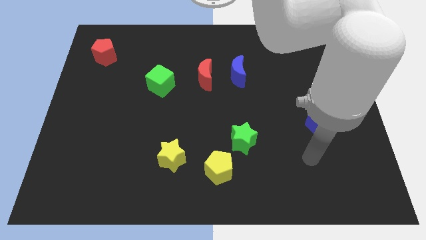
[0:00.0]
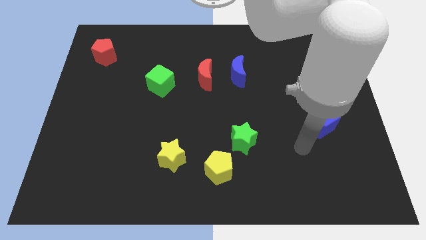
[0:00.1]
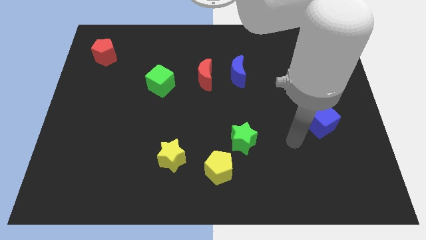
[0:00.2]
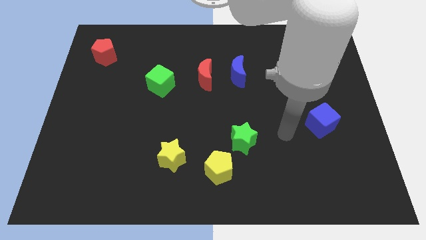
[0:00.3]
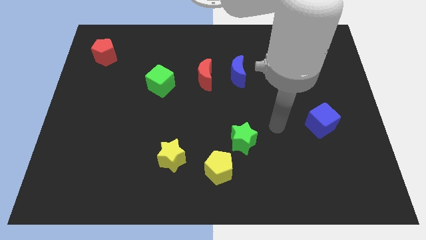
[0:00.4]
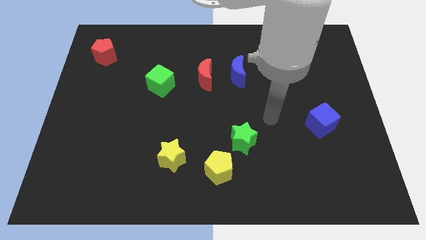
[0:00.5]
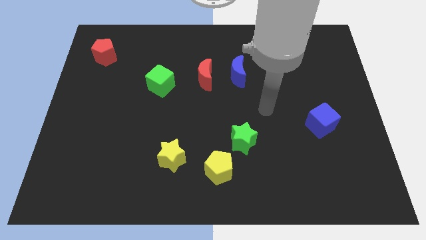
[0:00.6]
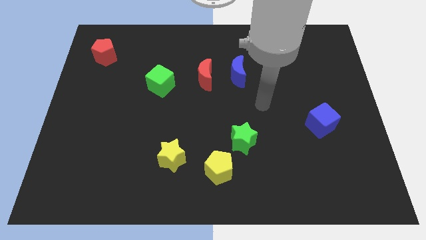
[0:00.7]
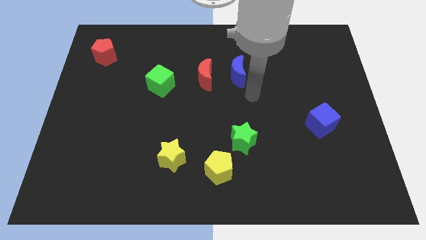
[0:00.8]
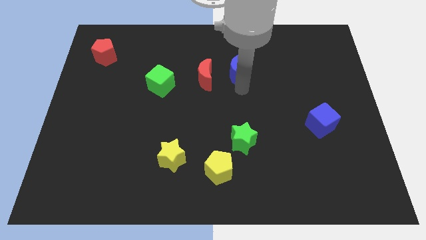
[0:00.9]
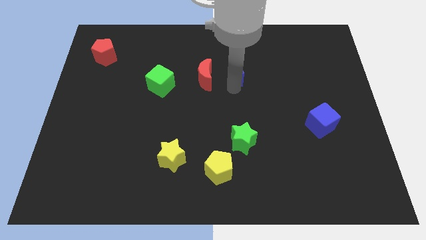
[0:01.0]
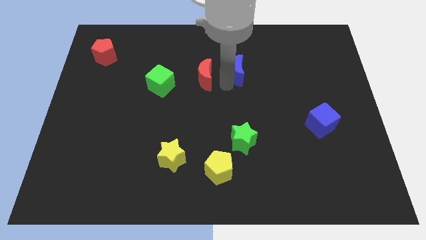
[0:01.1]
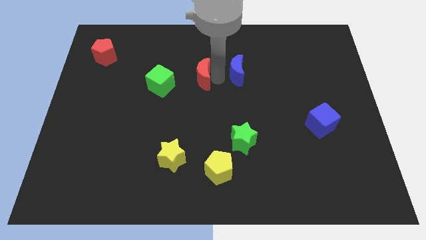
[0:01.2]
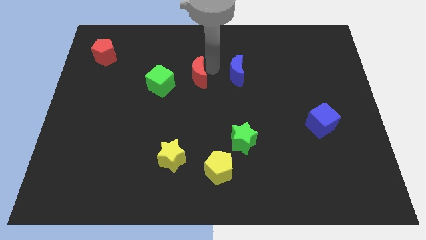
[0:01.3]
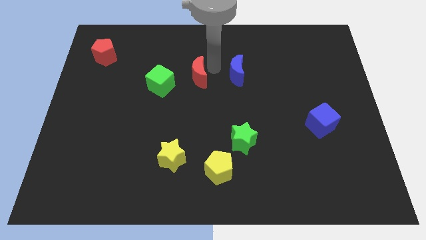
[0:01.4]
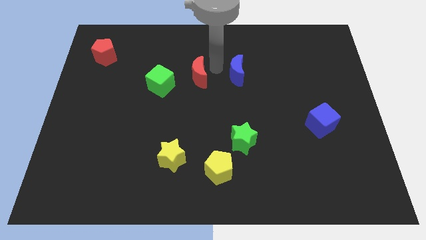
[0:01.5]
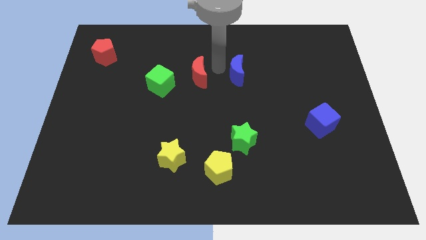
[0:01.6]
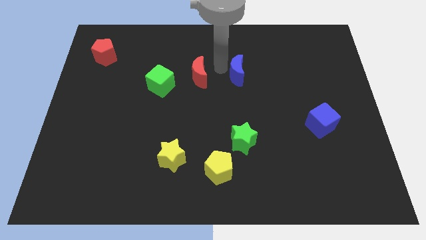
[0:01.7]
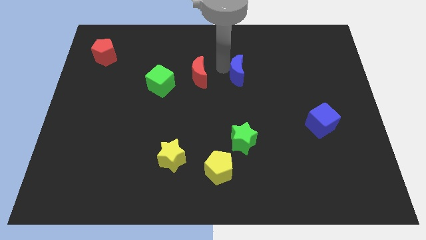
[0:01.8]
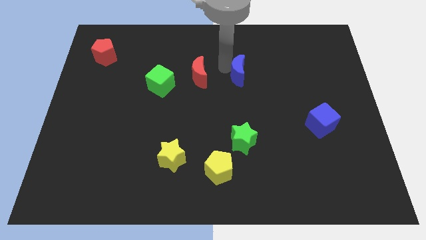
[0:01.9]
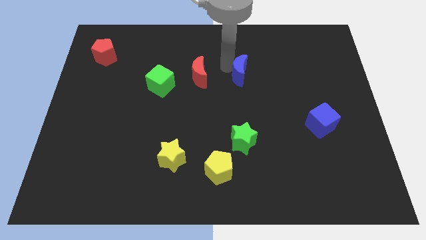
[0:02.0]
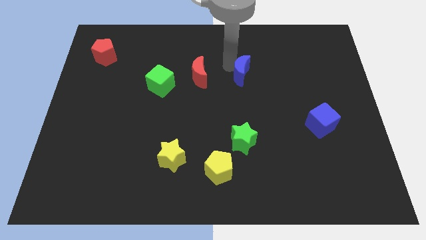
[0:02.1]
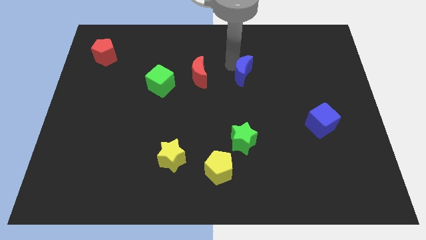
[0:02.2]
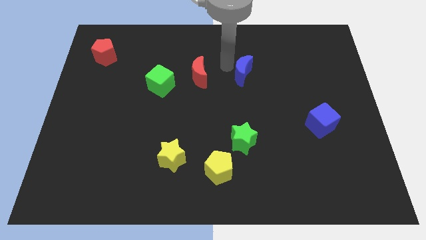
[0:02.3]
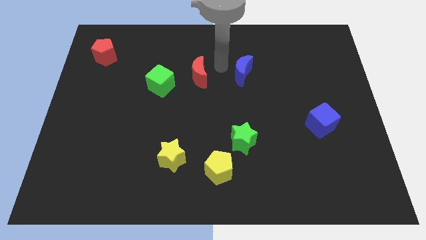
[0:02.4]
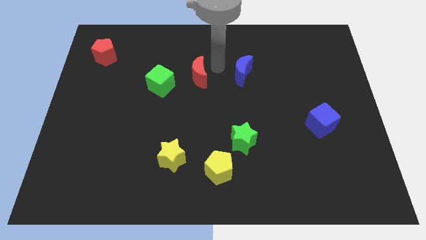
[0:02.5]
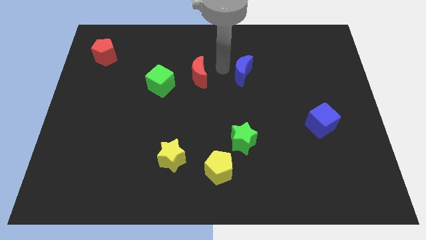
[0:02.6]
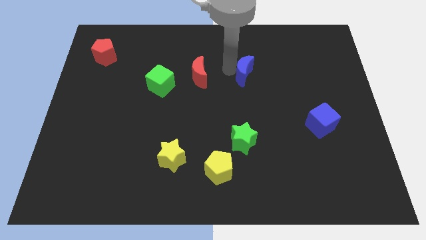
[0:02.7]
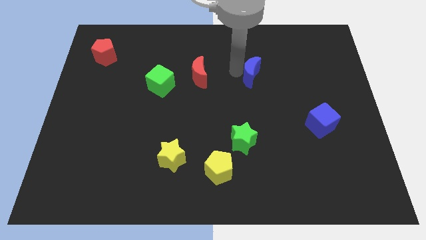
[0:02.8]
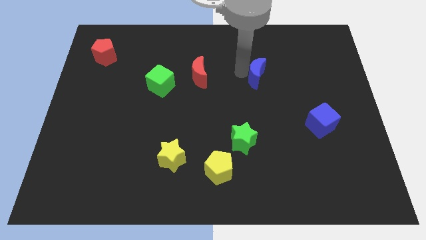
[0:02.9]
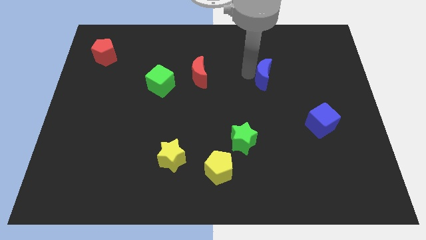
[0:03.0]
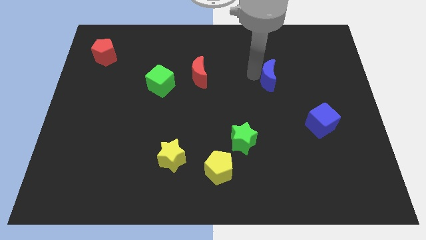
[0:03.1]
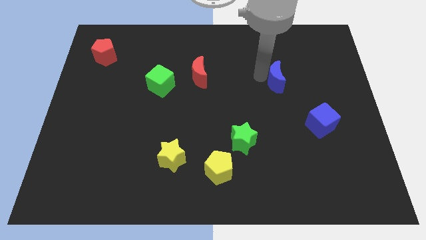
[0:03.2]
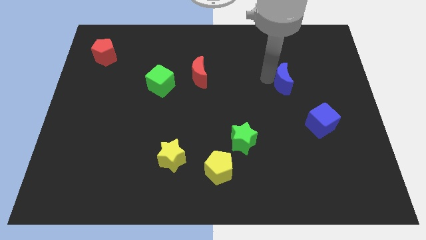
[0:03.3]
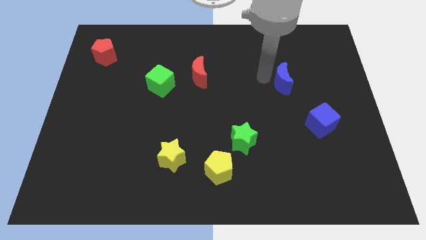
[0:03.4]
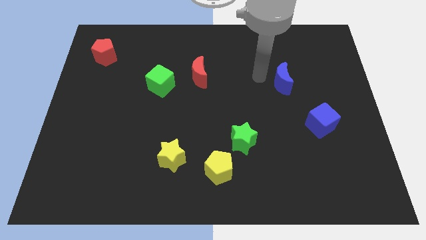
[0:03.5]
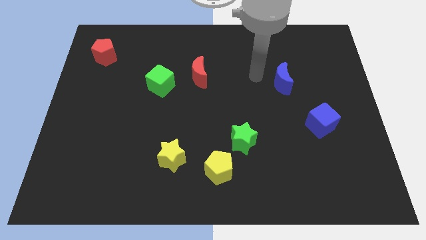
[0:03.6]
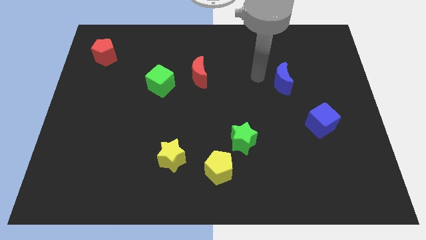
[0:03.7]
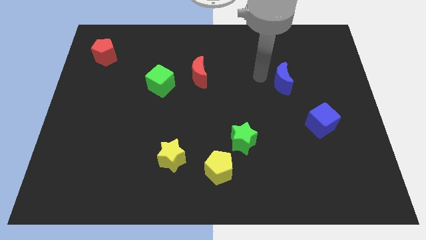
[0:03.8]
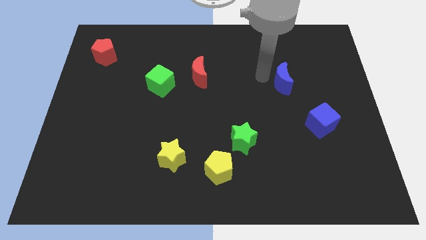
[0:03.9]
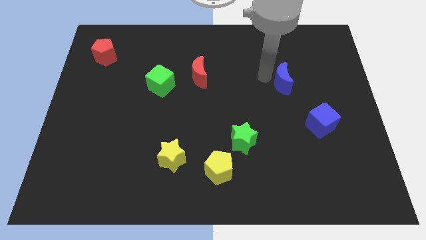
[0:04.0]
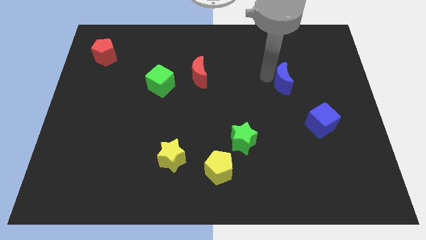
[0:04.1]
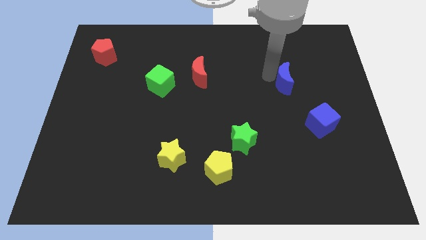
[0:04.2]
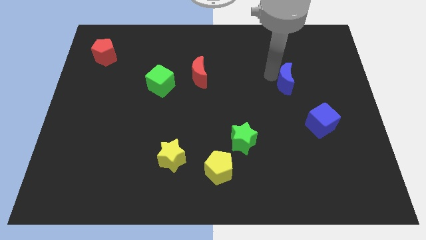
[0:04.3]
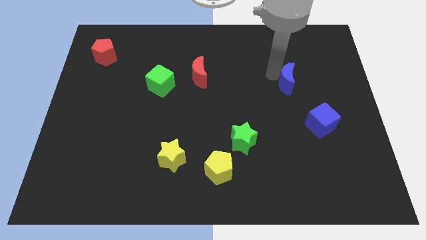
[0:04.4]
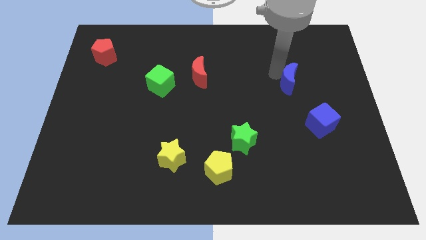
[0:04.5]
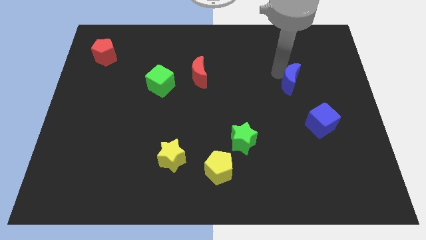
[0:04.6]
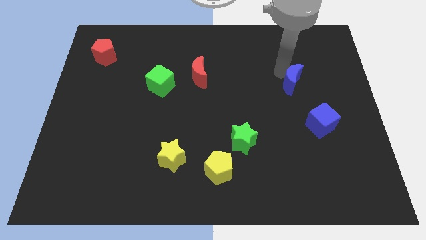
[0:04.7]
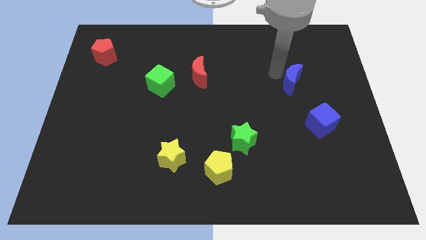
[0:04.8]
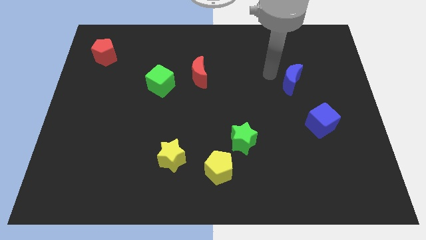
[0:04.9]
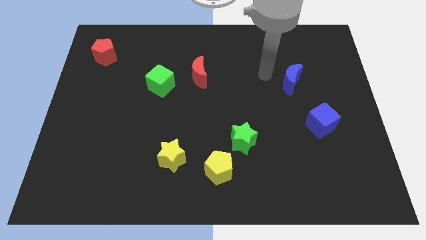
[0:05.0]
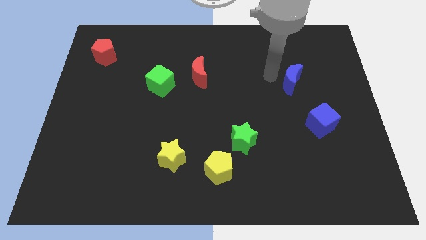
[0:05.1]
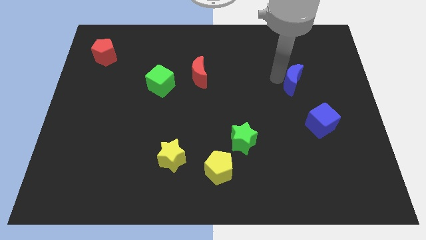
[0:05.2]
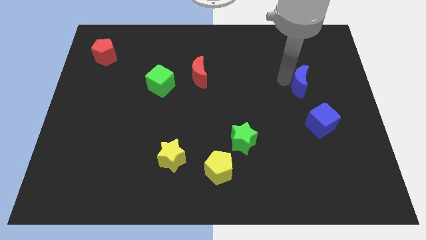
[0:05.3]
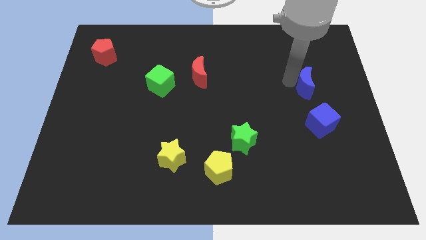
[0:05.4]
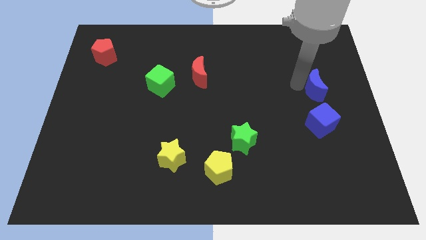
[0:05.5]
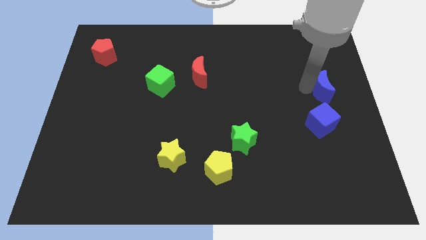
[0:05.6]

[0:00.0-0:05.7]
slide the blue moon to the right side of the board
